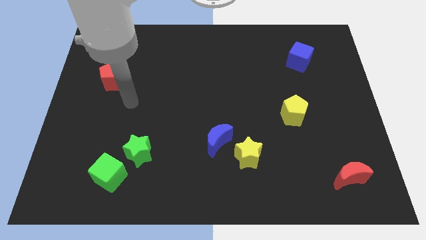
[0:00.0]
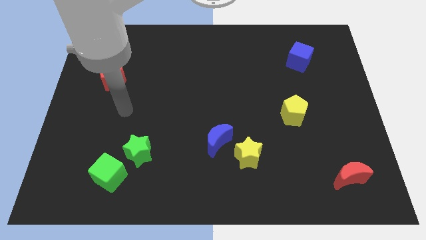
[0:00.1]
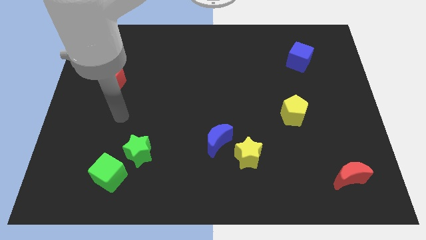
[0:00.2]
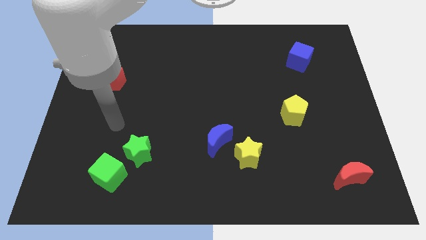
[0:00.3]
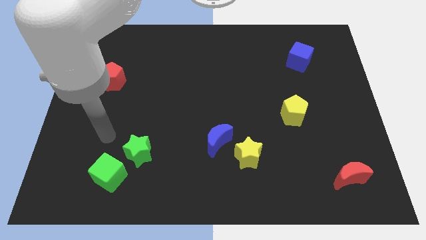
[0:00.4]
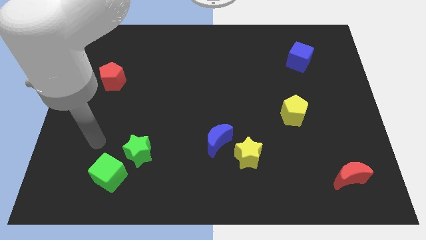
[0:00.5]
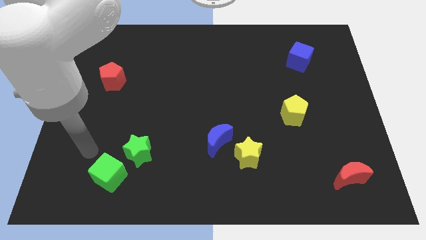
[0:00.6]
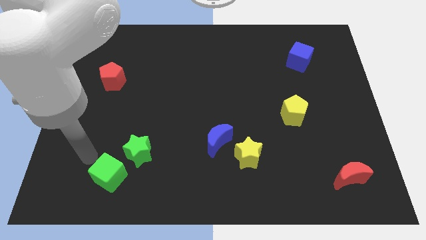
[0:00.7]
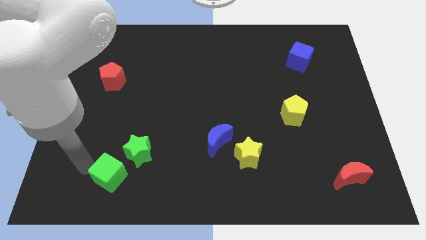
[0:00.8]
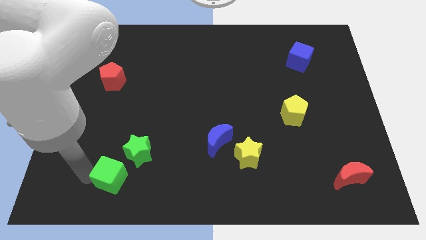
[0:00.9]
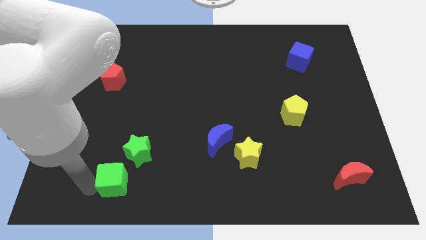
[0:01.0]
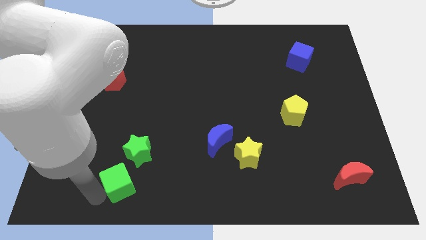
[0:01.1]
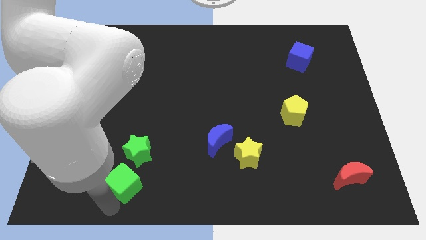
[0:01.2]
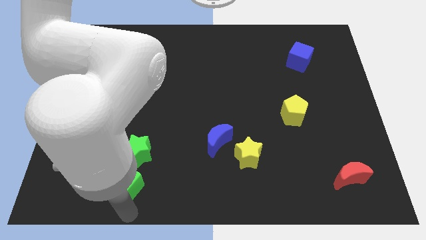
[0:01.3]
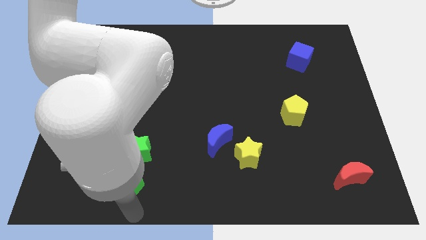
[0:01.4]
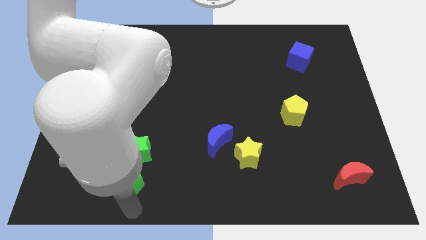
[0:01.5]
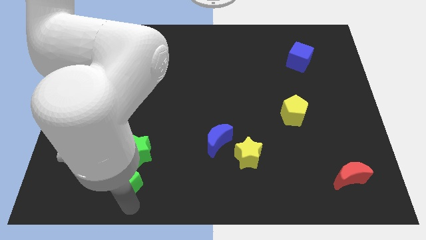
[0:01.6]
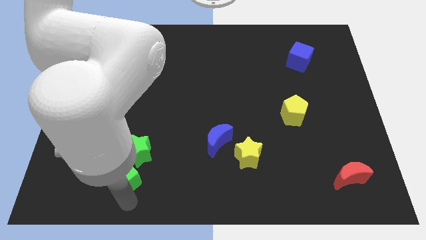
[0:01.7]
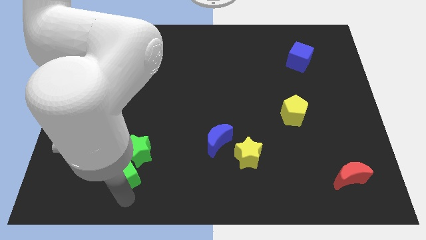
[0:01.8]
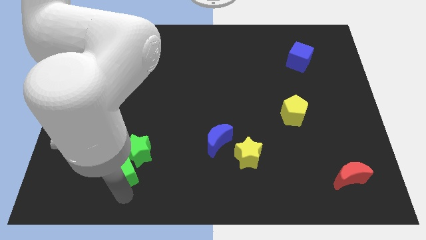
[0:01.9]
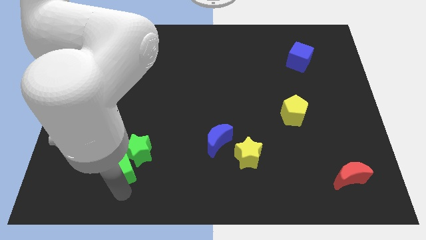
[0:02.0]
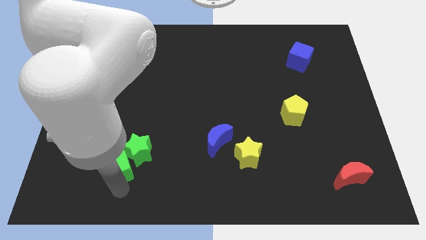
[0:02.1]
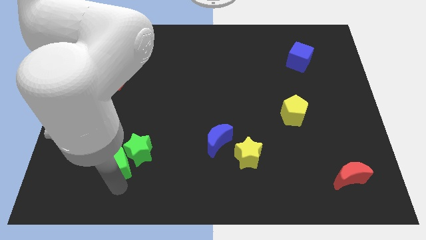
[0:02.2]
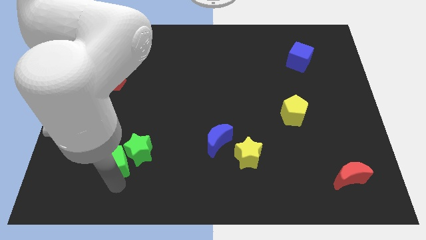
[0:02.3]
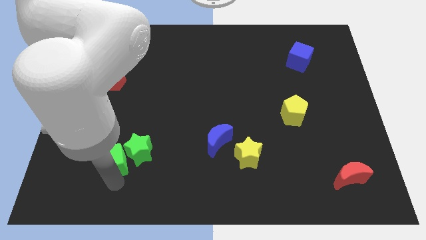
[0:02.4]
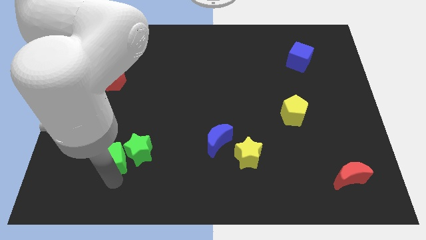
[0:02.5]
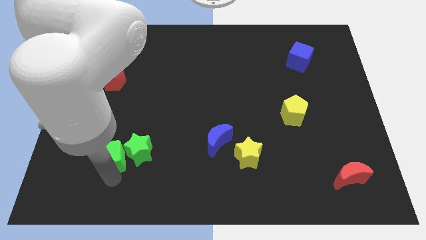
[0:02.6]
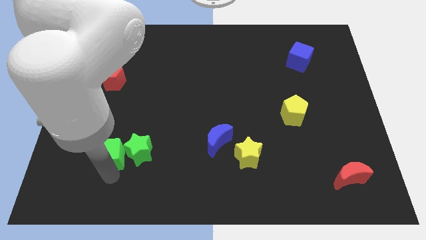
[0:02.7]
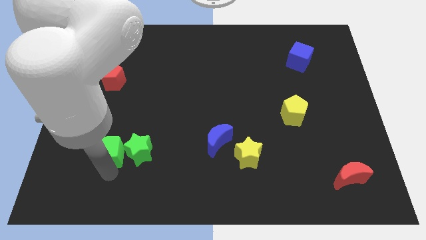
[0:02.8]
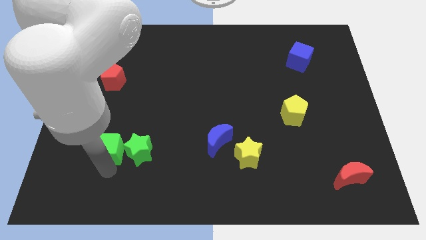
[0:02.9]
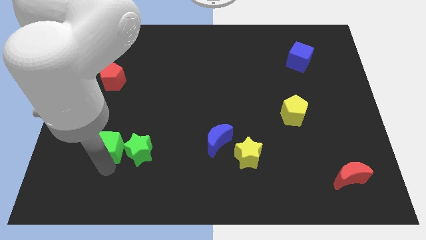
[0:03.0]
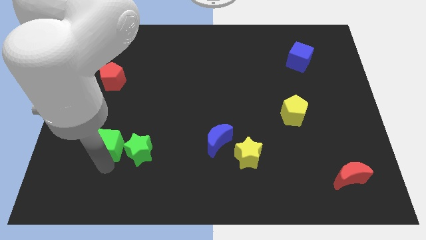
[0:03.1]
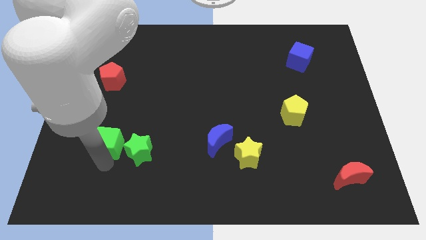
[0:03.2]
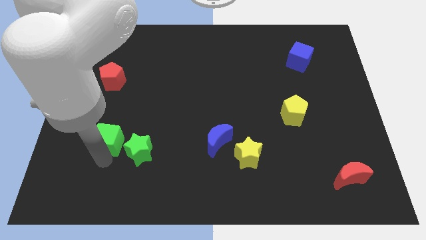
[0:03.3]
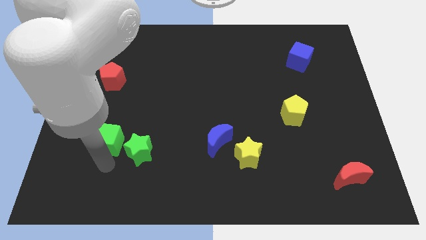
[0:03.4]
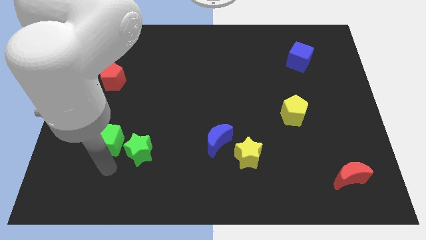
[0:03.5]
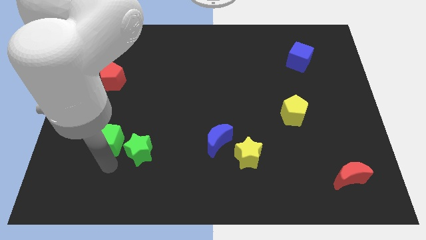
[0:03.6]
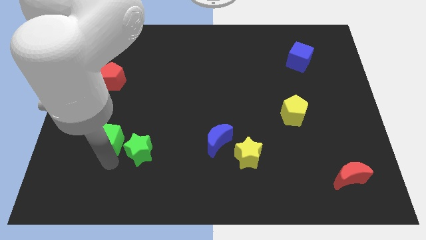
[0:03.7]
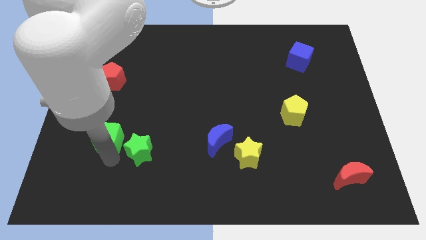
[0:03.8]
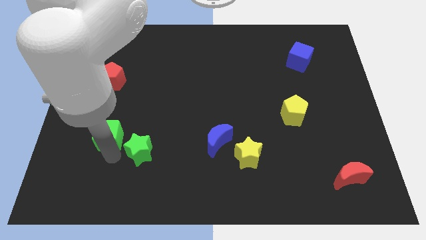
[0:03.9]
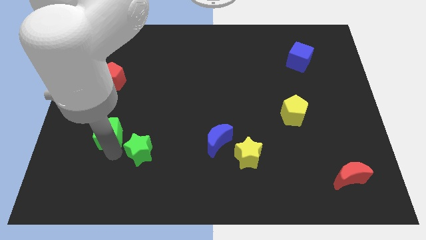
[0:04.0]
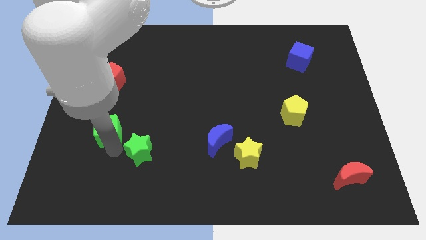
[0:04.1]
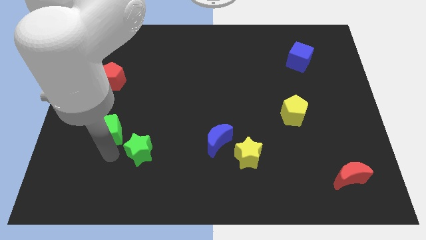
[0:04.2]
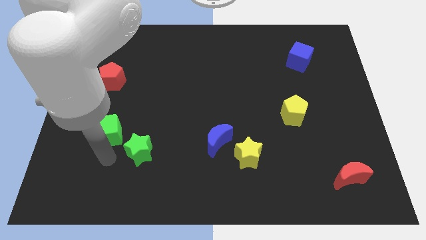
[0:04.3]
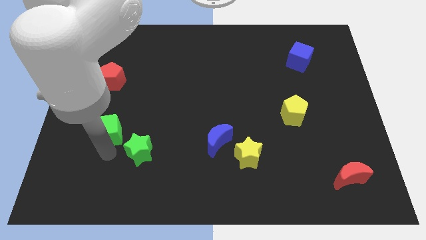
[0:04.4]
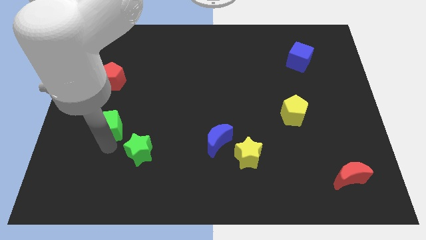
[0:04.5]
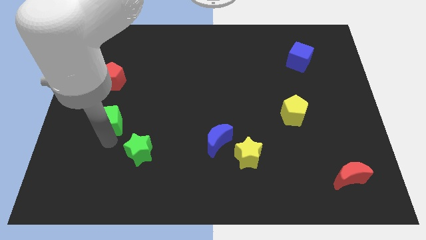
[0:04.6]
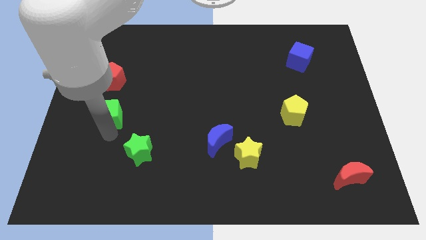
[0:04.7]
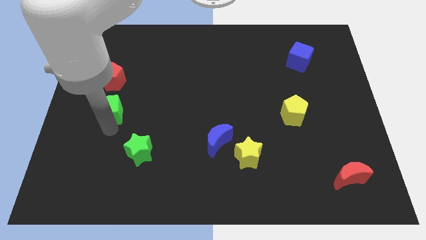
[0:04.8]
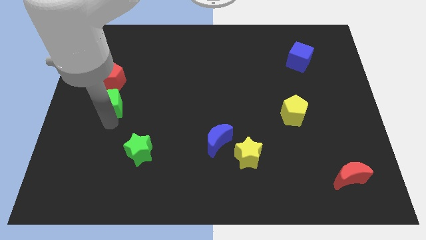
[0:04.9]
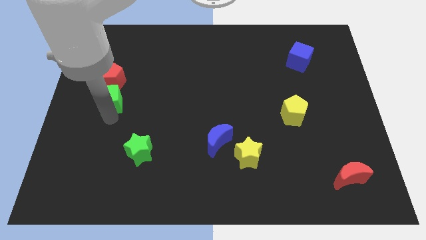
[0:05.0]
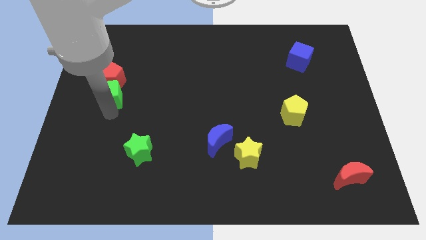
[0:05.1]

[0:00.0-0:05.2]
put the green cube close to the red pentagon

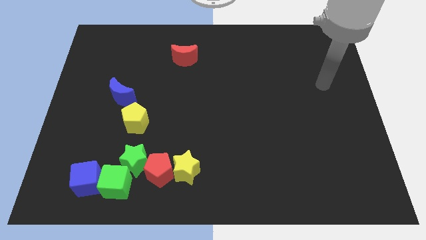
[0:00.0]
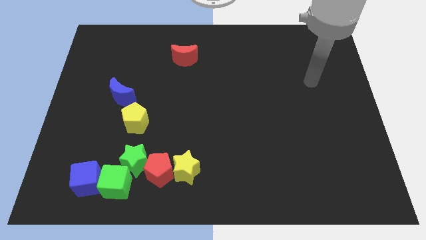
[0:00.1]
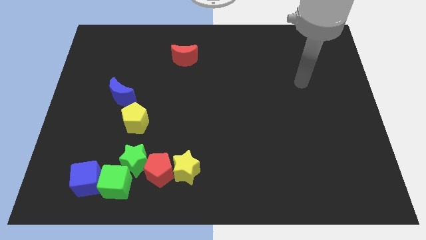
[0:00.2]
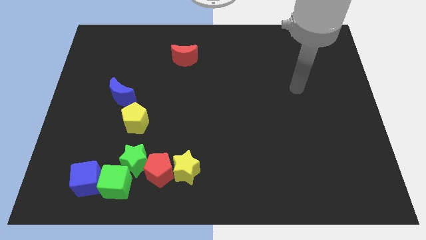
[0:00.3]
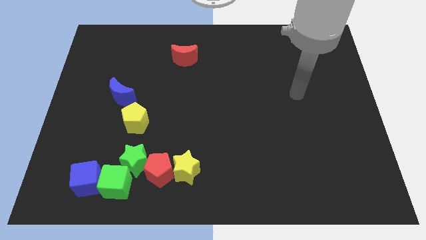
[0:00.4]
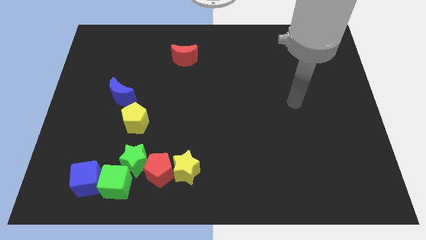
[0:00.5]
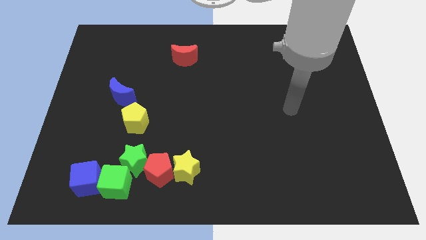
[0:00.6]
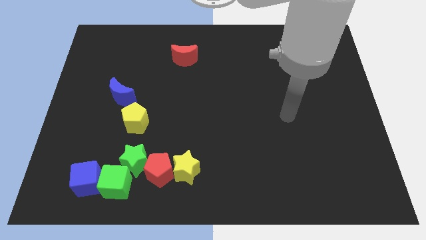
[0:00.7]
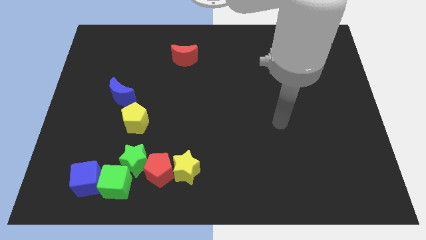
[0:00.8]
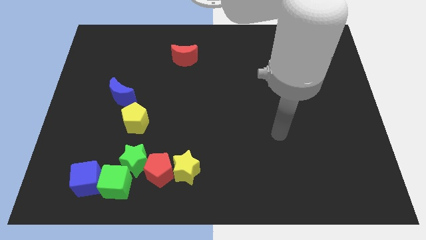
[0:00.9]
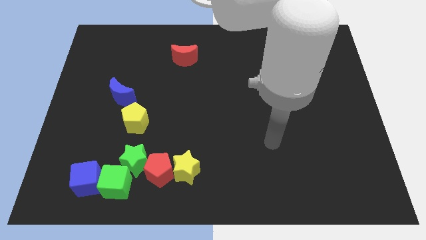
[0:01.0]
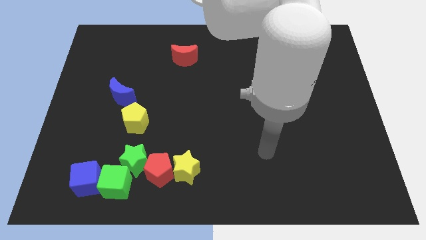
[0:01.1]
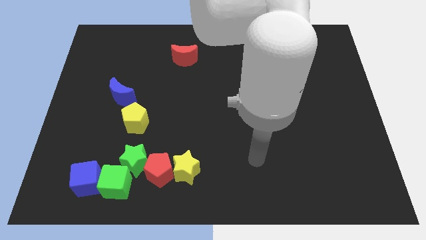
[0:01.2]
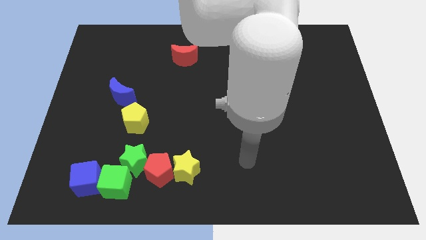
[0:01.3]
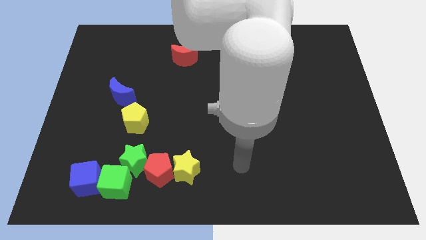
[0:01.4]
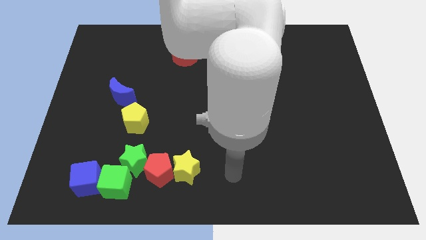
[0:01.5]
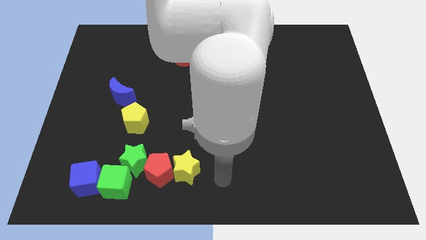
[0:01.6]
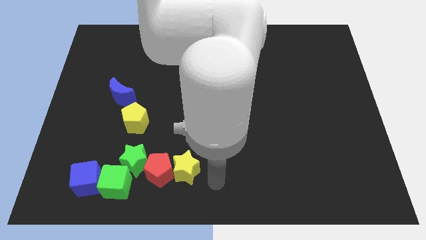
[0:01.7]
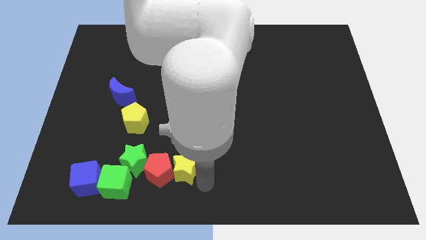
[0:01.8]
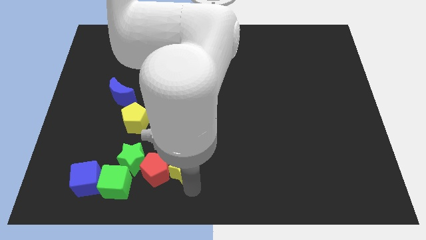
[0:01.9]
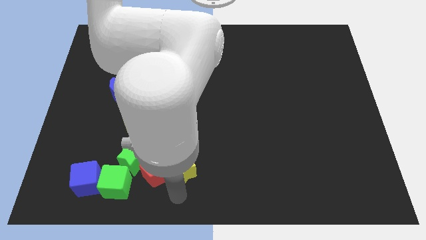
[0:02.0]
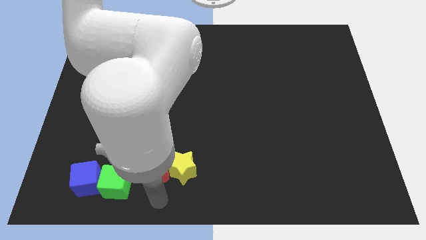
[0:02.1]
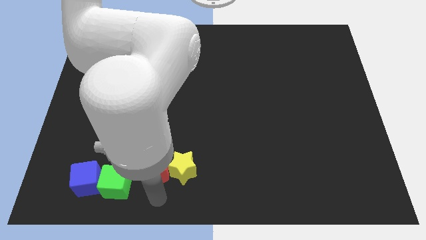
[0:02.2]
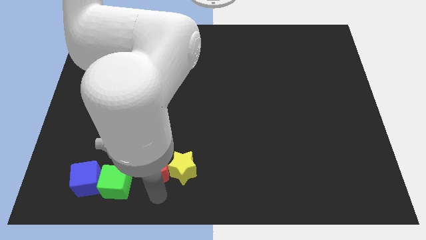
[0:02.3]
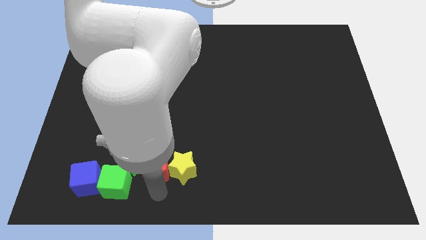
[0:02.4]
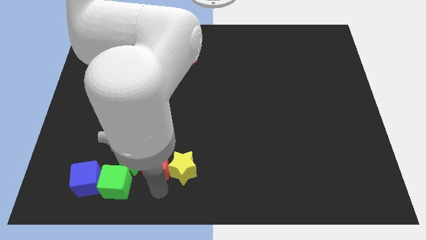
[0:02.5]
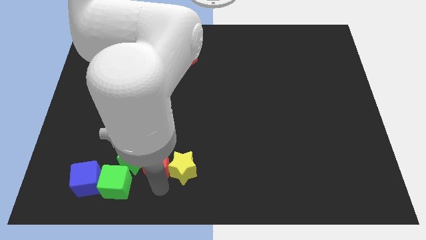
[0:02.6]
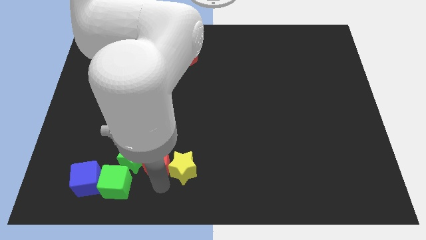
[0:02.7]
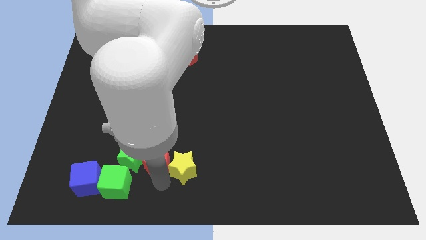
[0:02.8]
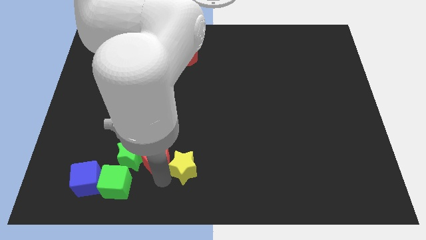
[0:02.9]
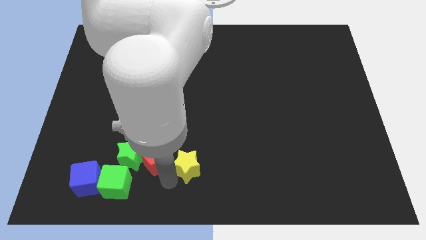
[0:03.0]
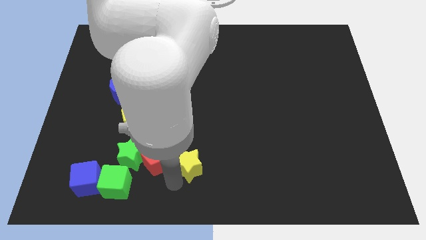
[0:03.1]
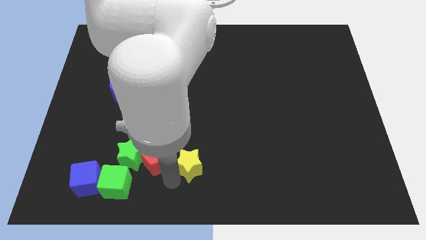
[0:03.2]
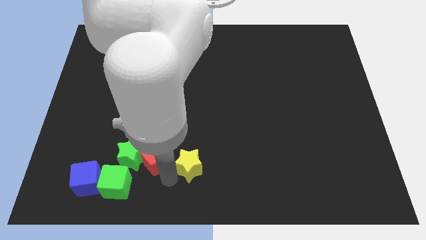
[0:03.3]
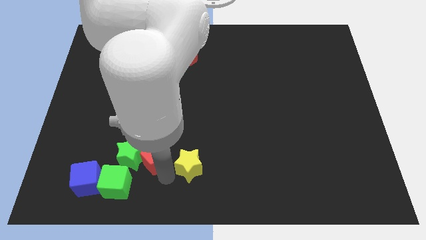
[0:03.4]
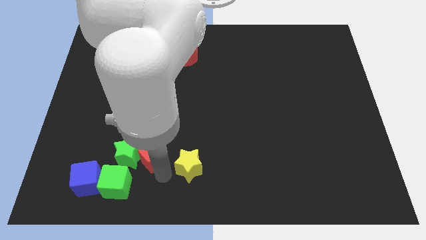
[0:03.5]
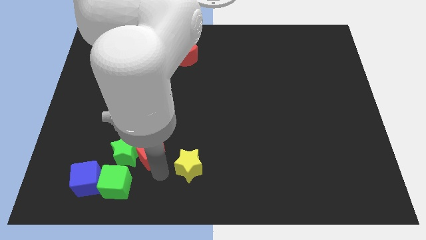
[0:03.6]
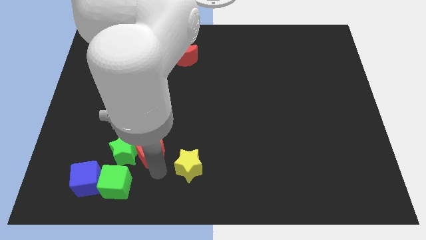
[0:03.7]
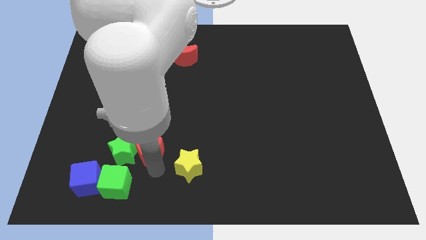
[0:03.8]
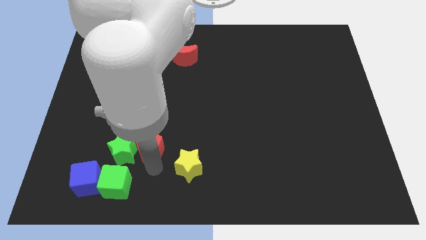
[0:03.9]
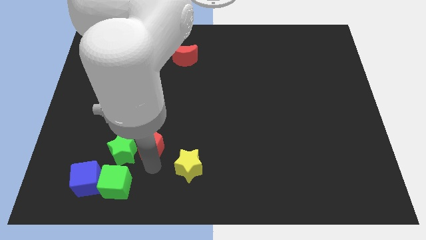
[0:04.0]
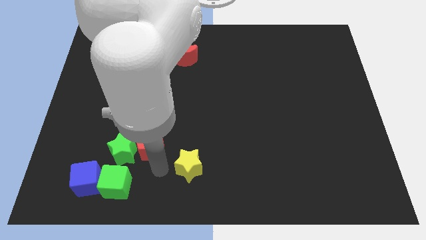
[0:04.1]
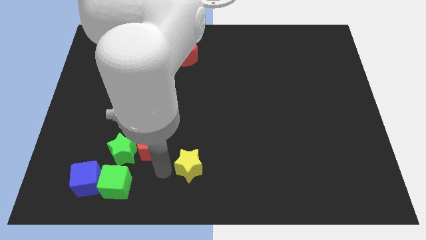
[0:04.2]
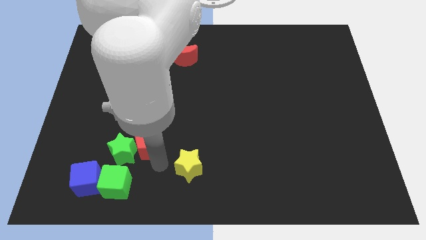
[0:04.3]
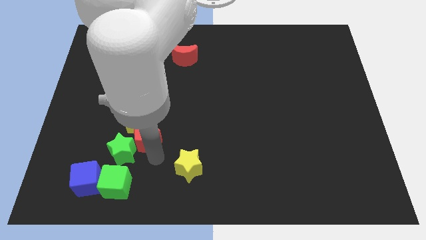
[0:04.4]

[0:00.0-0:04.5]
move the red pentagon to the yellow pentagon
